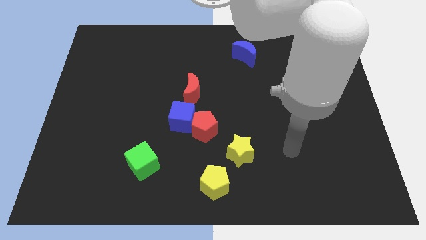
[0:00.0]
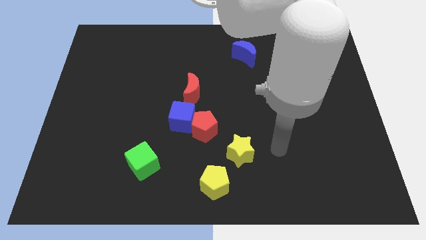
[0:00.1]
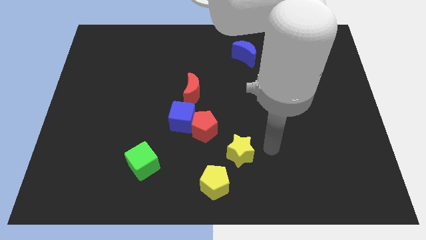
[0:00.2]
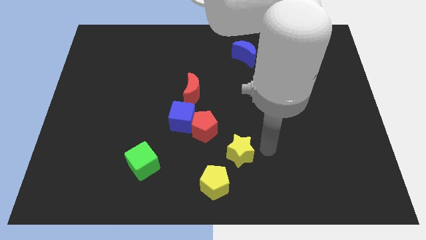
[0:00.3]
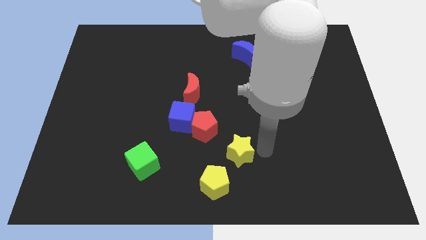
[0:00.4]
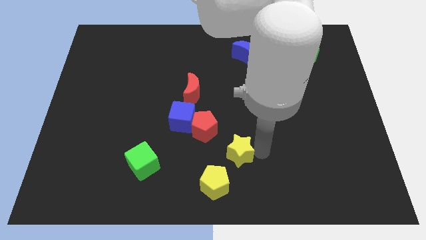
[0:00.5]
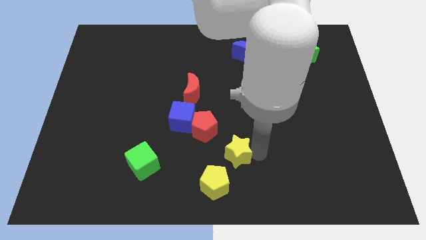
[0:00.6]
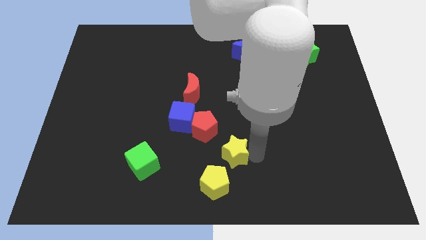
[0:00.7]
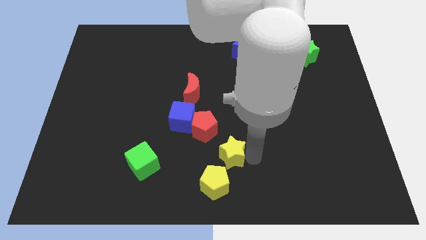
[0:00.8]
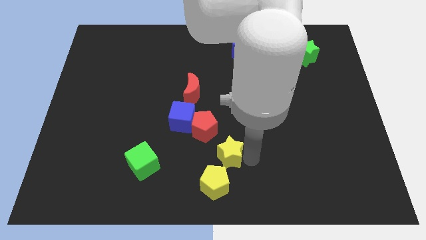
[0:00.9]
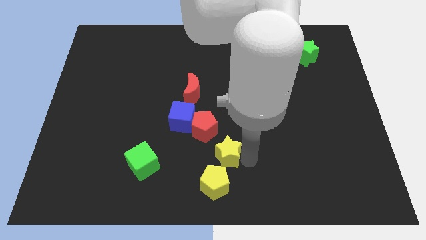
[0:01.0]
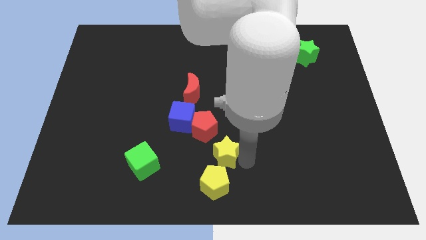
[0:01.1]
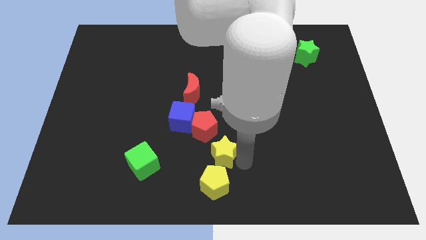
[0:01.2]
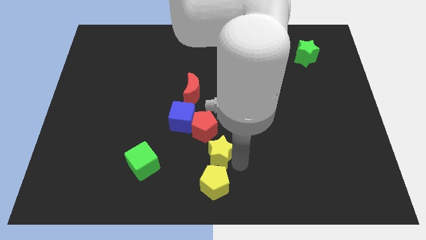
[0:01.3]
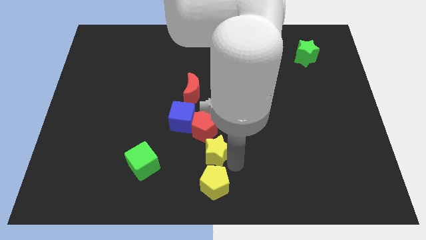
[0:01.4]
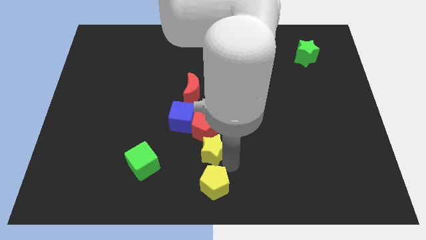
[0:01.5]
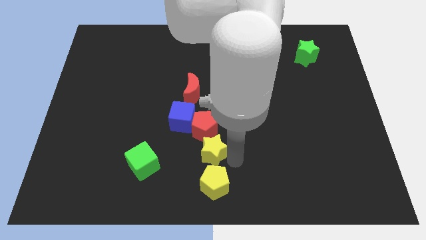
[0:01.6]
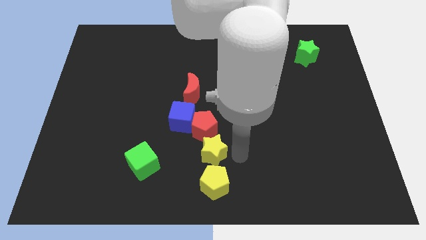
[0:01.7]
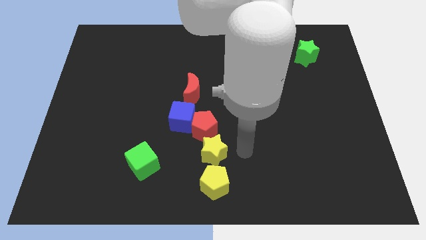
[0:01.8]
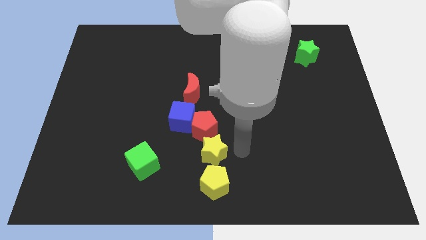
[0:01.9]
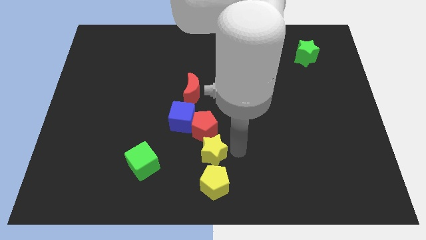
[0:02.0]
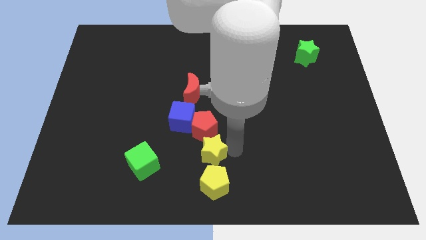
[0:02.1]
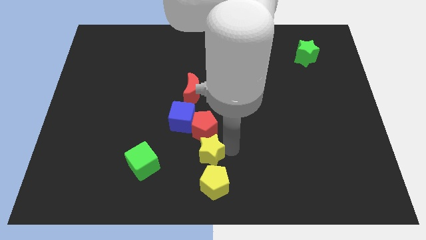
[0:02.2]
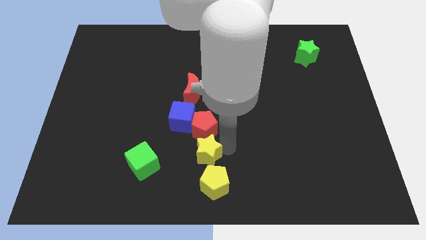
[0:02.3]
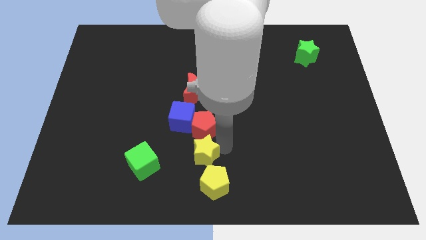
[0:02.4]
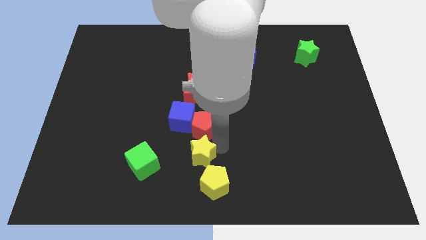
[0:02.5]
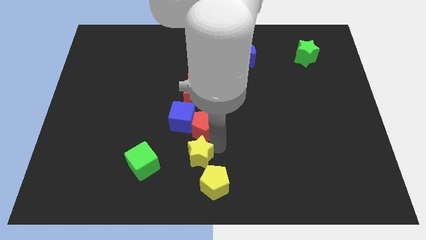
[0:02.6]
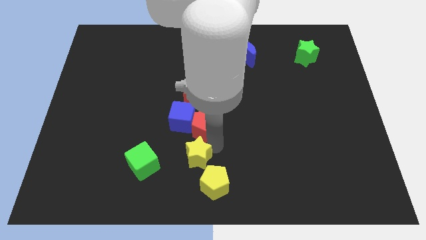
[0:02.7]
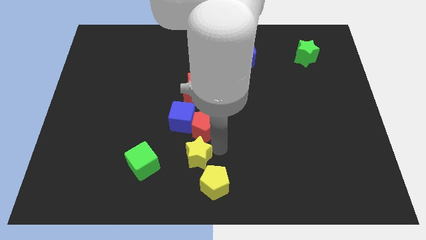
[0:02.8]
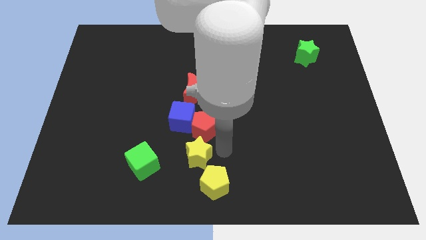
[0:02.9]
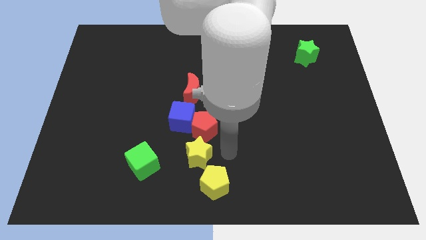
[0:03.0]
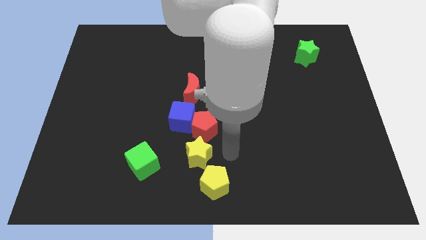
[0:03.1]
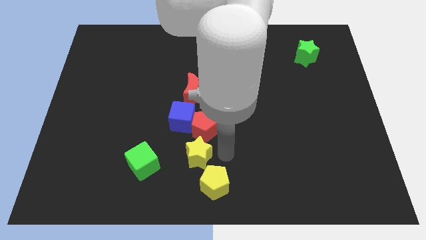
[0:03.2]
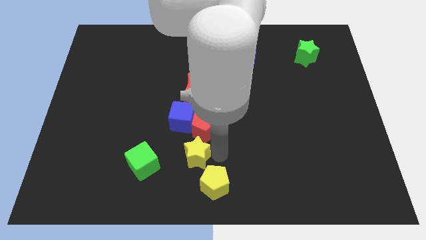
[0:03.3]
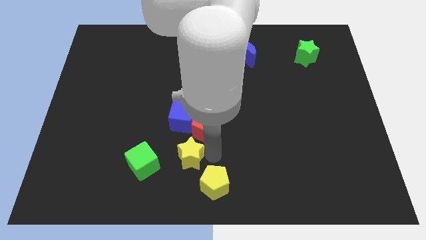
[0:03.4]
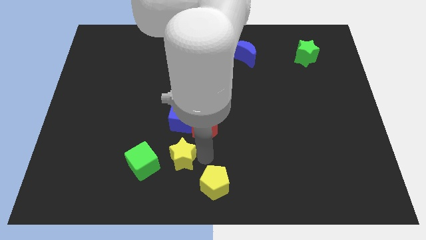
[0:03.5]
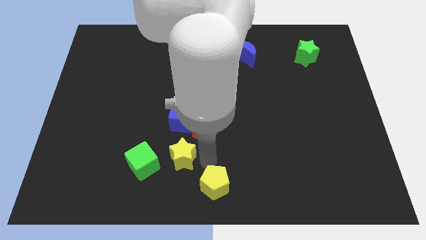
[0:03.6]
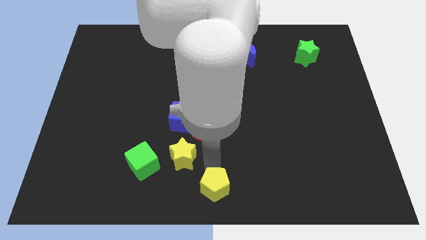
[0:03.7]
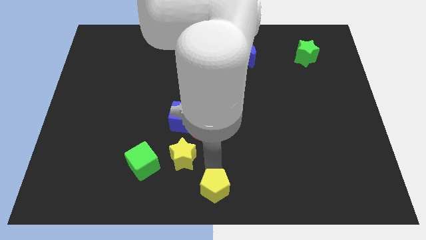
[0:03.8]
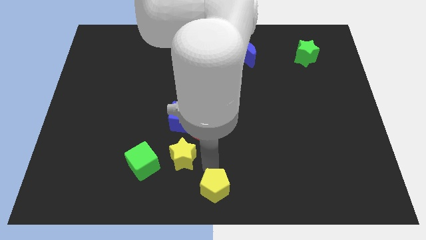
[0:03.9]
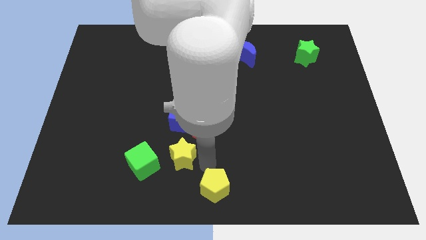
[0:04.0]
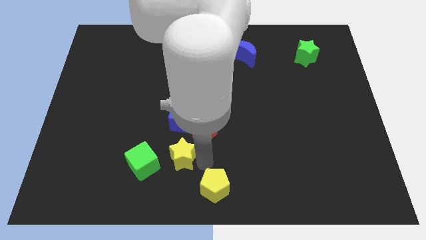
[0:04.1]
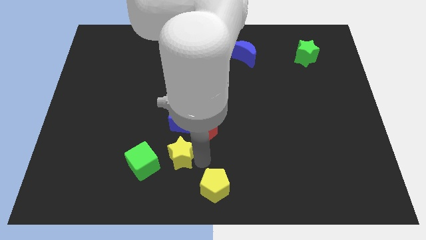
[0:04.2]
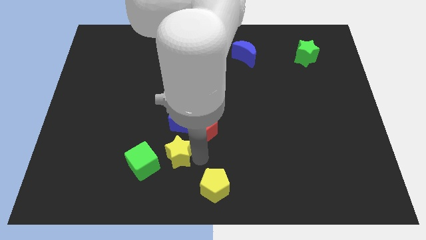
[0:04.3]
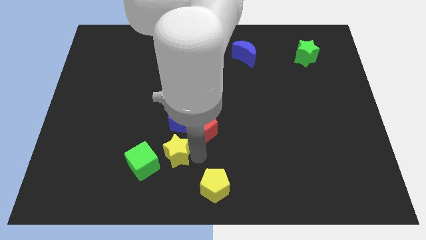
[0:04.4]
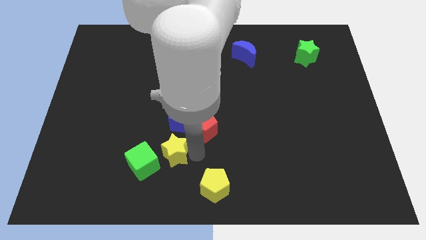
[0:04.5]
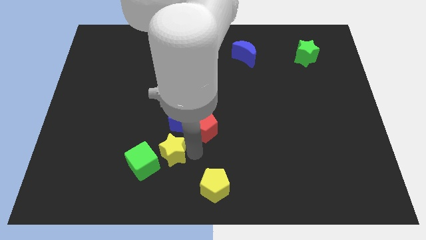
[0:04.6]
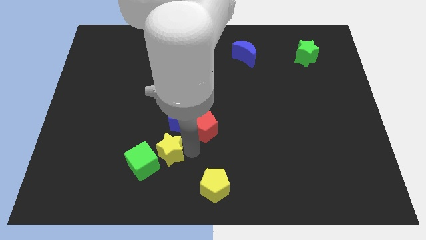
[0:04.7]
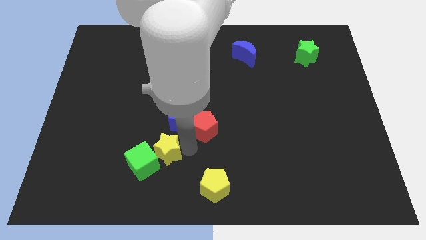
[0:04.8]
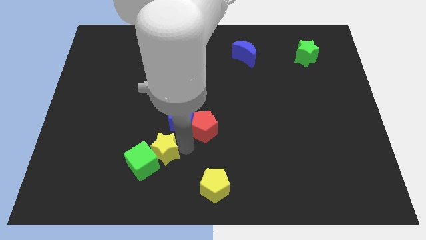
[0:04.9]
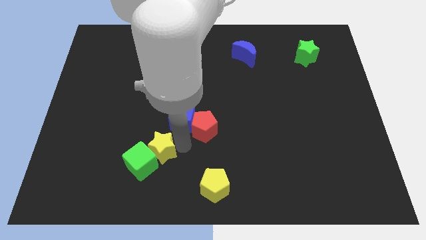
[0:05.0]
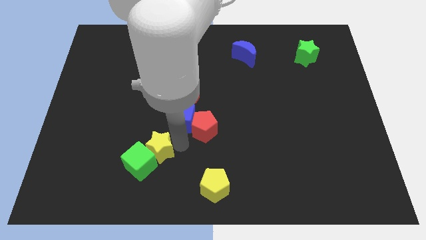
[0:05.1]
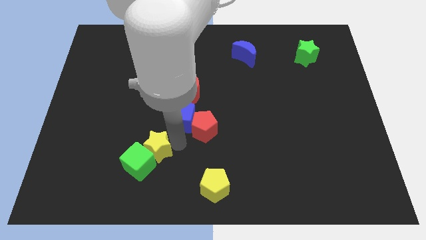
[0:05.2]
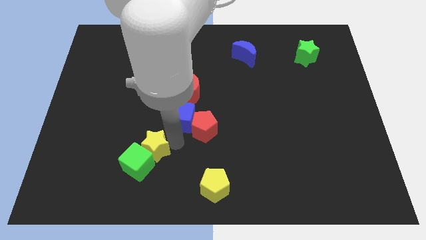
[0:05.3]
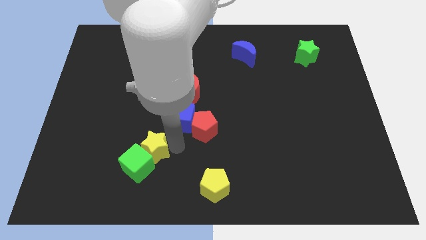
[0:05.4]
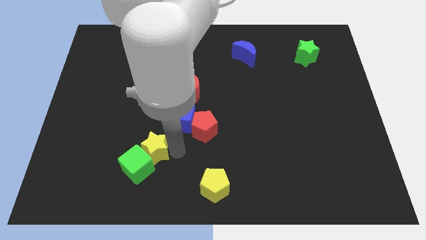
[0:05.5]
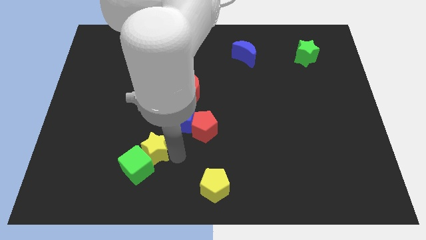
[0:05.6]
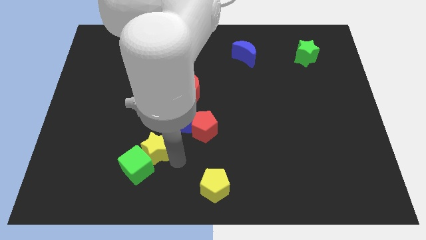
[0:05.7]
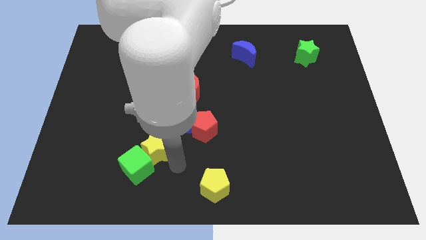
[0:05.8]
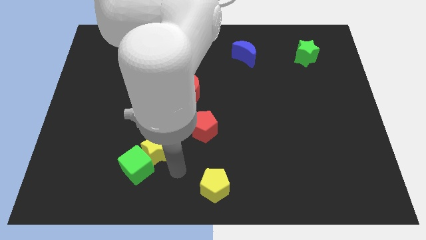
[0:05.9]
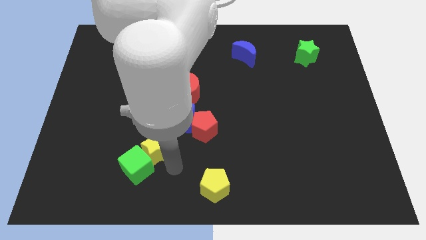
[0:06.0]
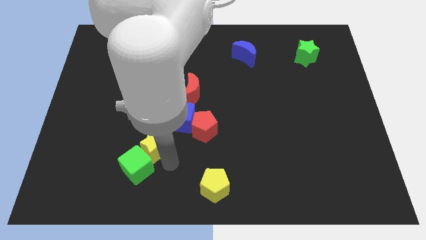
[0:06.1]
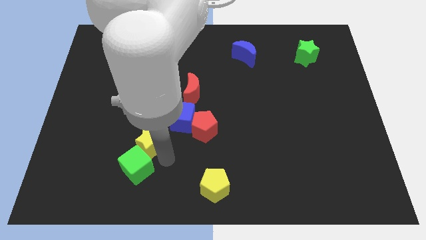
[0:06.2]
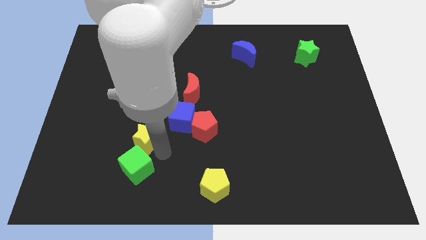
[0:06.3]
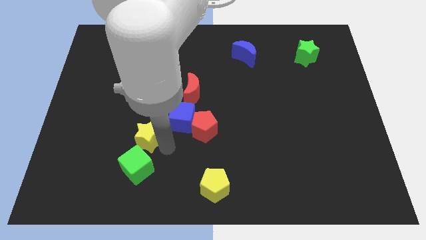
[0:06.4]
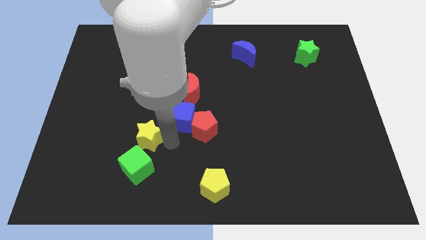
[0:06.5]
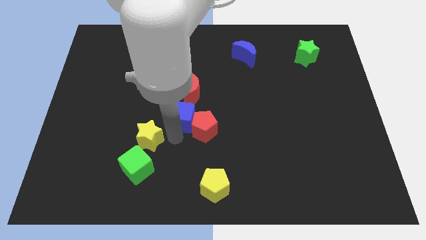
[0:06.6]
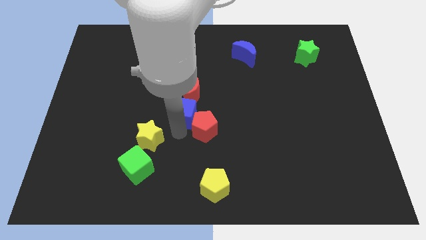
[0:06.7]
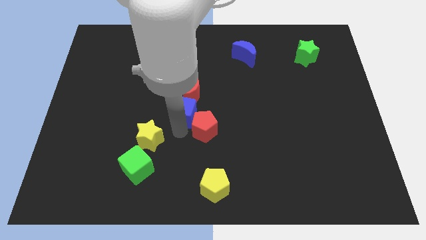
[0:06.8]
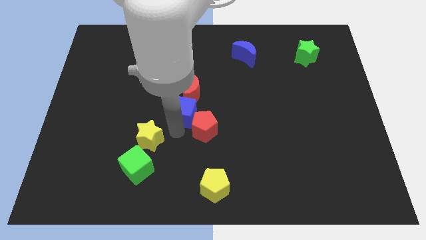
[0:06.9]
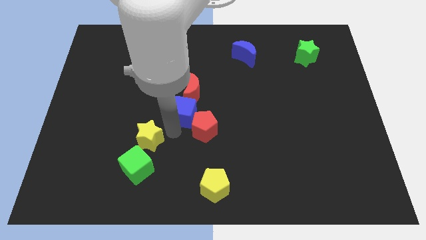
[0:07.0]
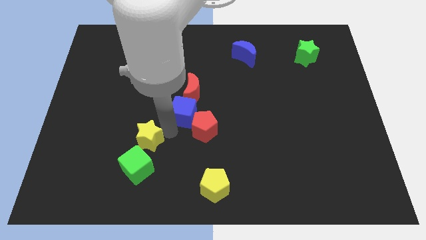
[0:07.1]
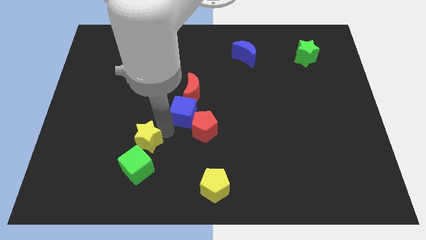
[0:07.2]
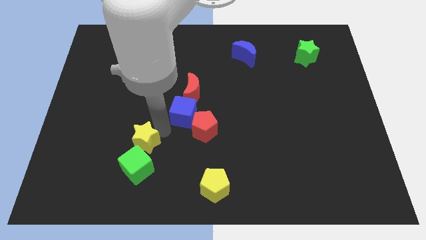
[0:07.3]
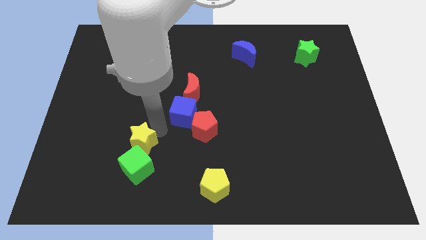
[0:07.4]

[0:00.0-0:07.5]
move the yellow star diagonally up and to the left of the green cube
